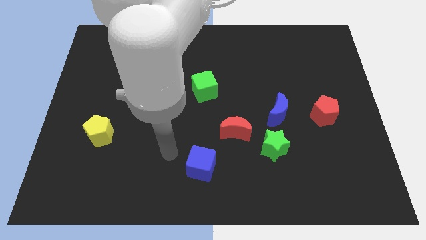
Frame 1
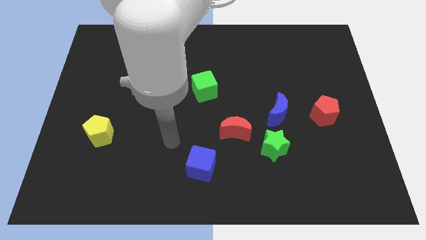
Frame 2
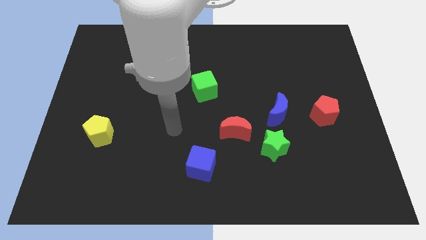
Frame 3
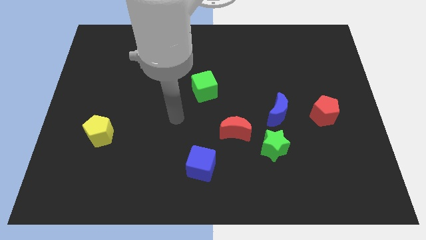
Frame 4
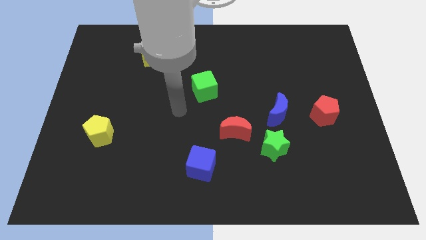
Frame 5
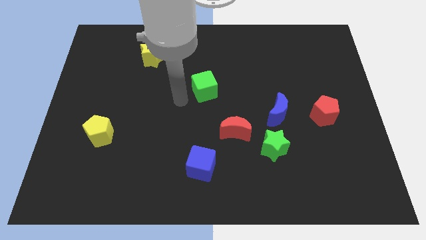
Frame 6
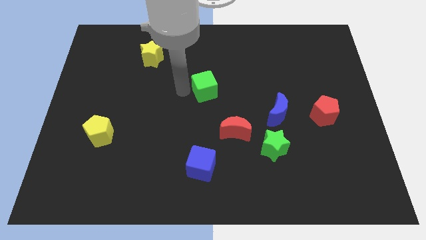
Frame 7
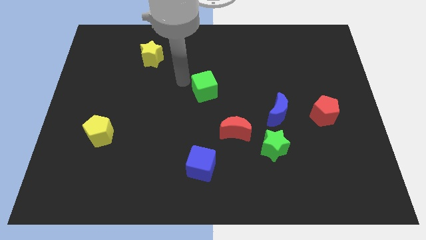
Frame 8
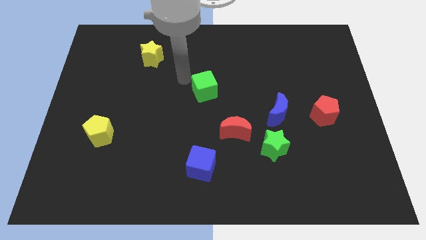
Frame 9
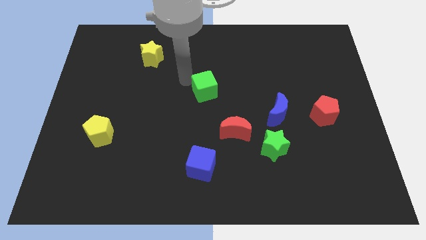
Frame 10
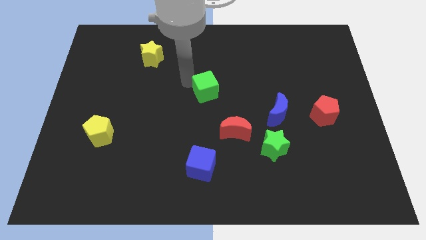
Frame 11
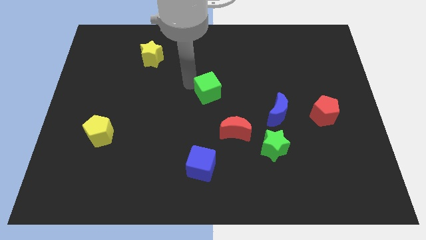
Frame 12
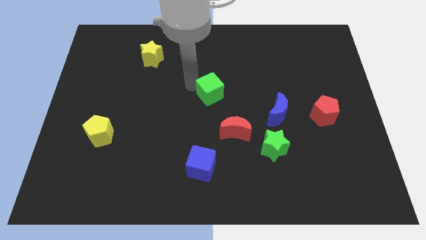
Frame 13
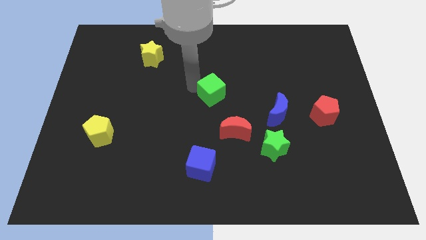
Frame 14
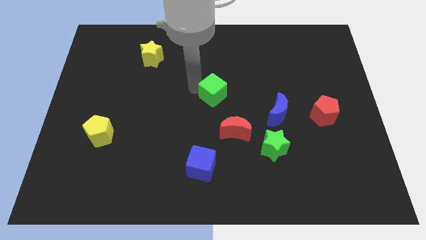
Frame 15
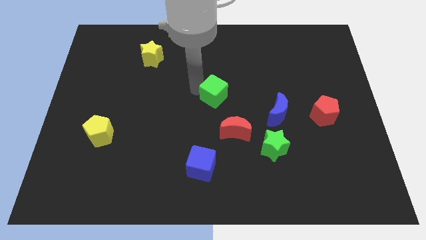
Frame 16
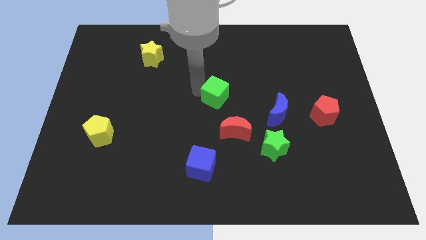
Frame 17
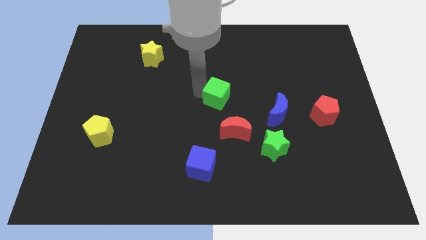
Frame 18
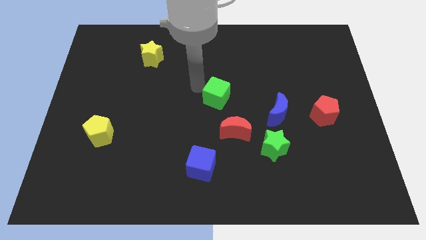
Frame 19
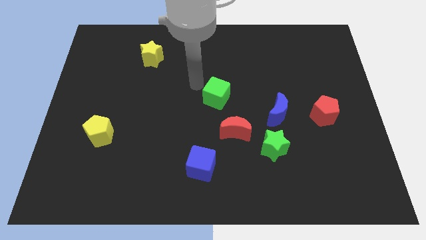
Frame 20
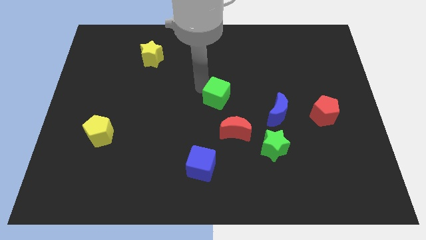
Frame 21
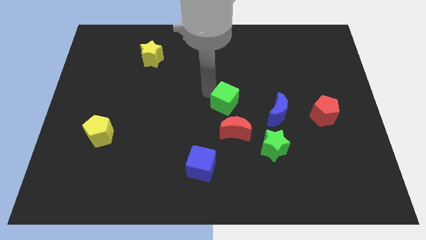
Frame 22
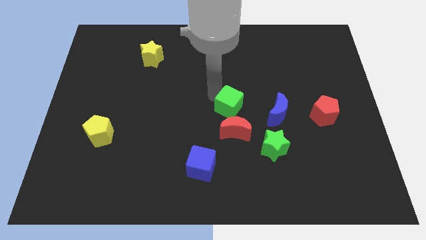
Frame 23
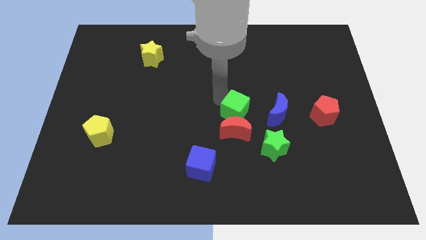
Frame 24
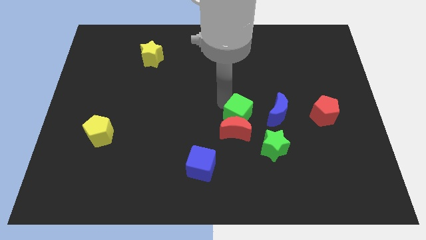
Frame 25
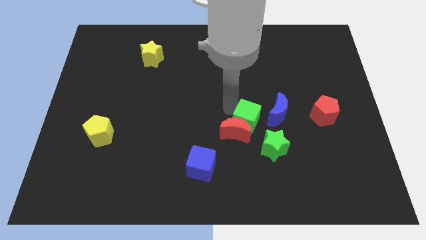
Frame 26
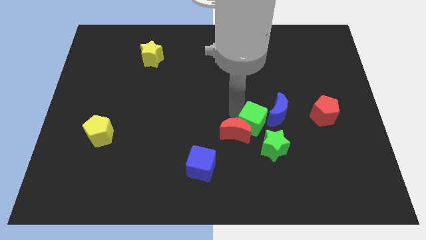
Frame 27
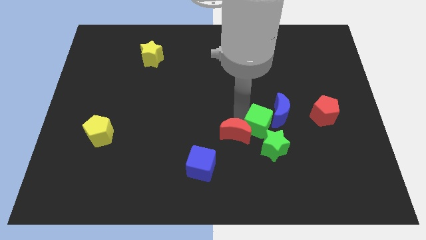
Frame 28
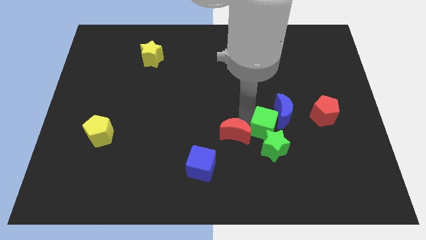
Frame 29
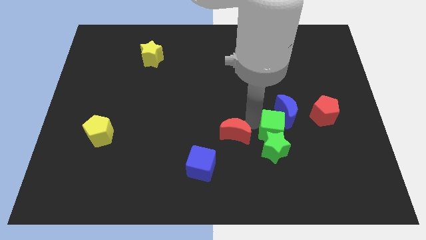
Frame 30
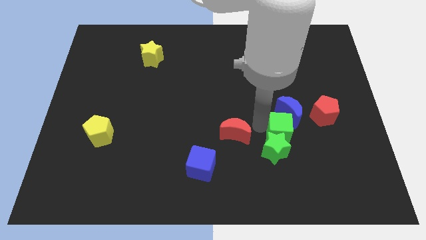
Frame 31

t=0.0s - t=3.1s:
push the green cube downwards and to the right diagonally

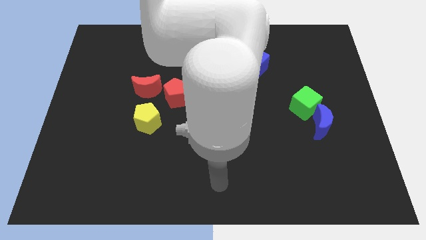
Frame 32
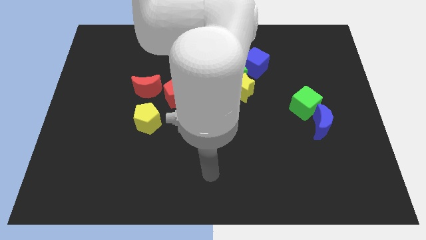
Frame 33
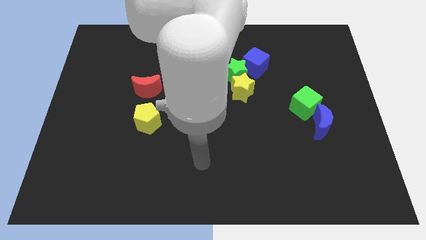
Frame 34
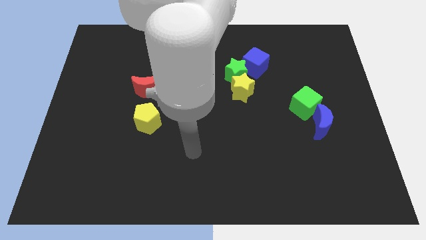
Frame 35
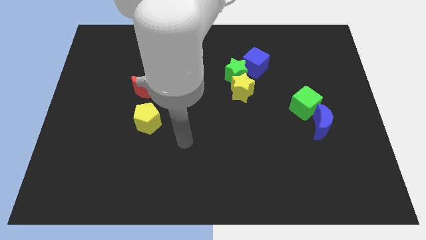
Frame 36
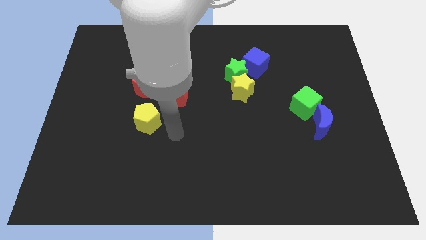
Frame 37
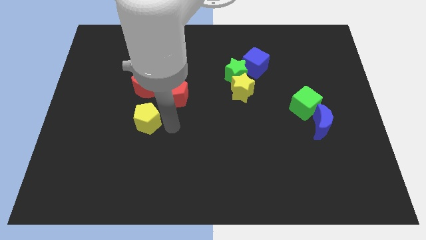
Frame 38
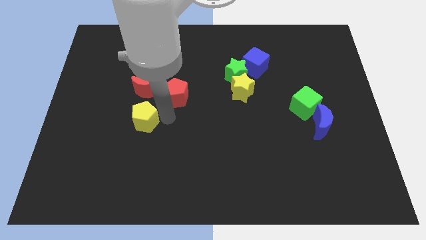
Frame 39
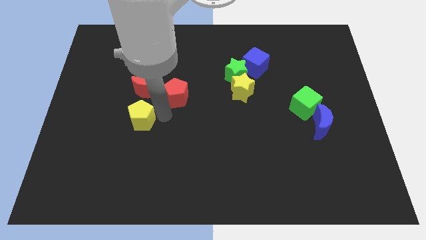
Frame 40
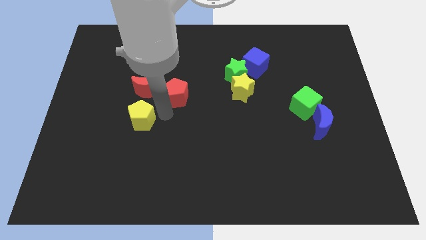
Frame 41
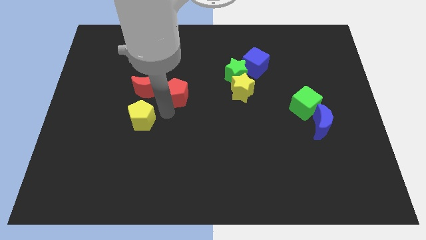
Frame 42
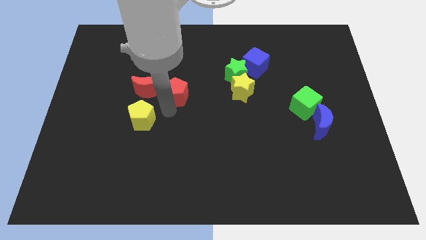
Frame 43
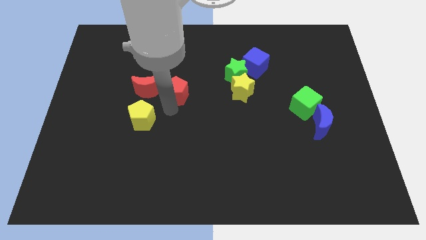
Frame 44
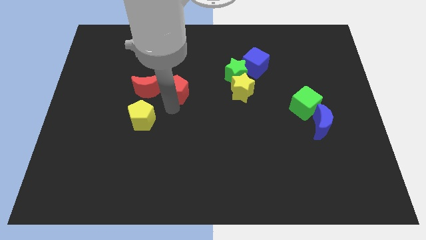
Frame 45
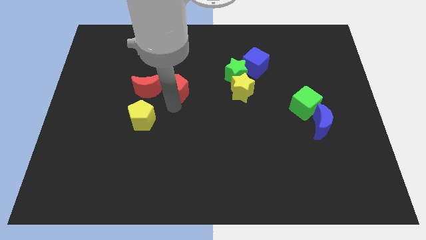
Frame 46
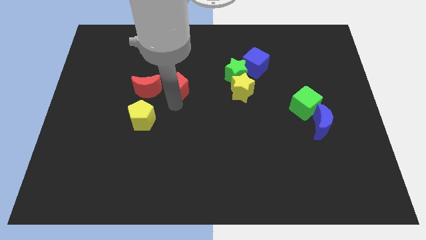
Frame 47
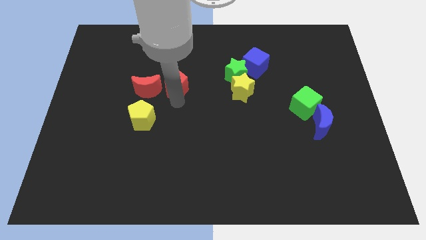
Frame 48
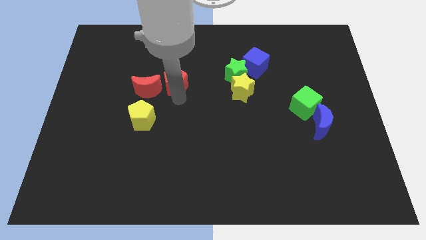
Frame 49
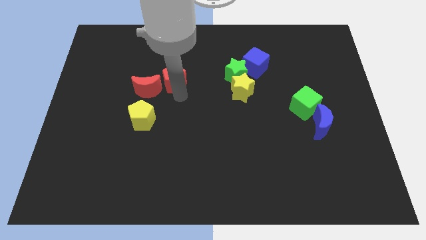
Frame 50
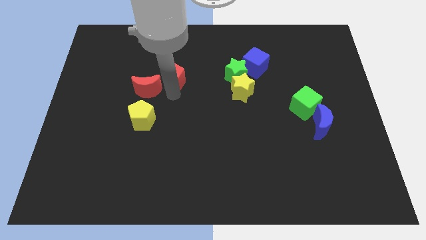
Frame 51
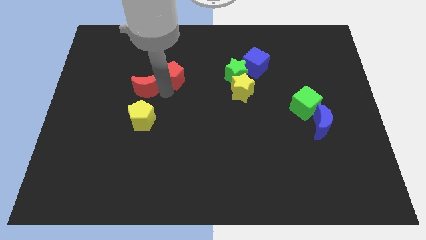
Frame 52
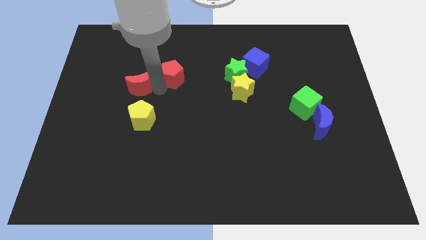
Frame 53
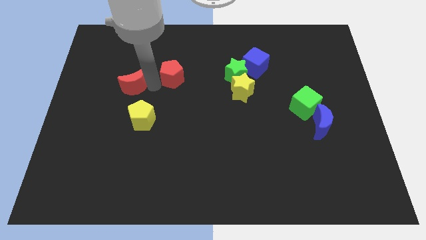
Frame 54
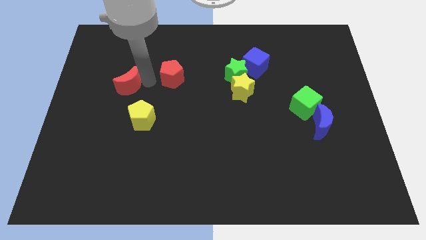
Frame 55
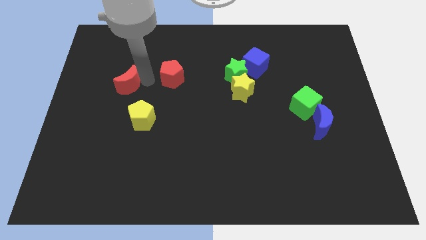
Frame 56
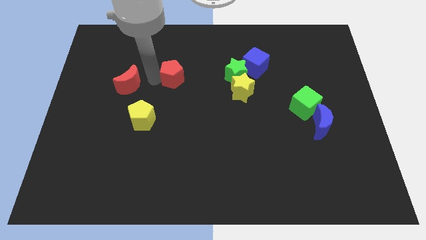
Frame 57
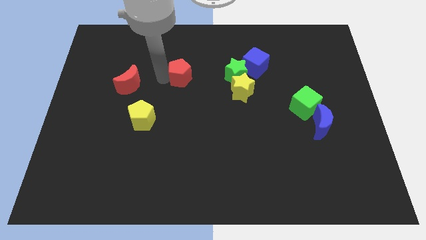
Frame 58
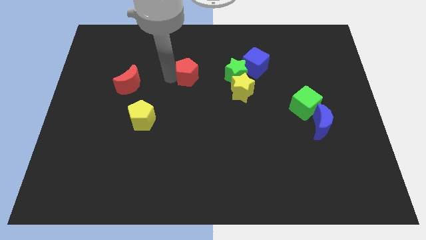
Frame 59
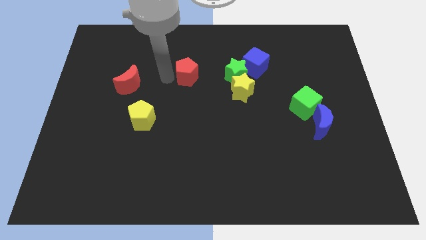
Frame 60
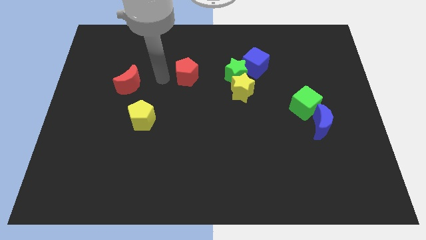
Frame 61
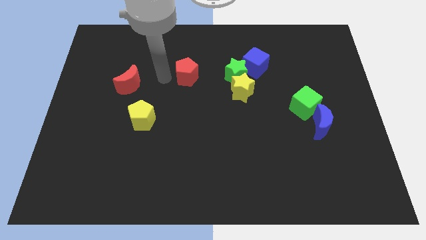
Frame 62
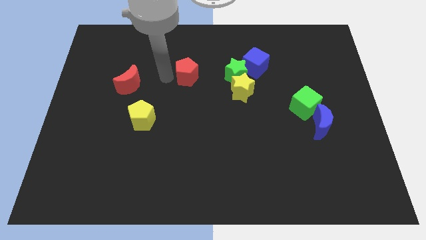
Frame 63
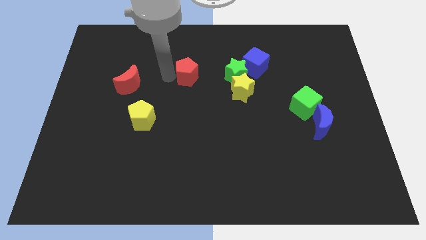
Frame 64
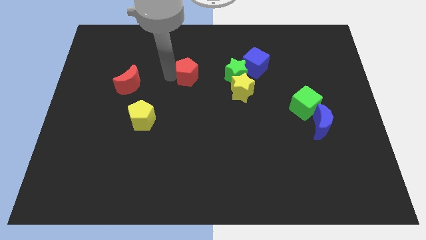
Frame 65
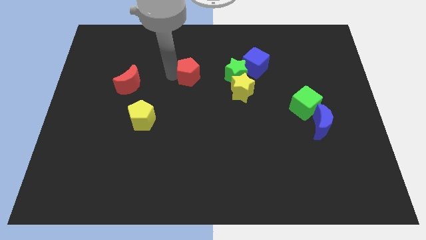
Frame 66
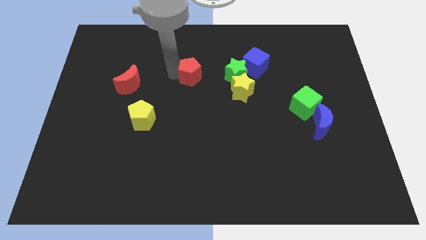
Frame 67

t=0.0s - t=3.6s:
move the red pentagon up and then right somewhat

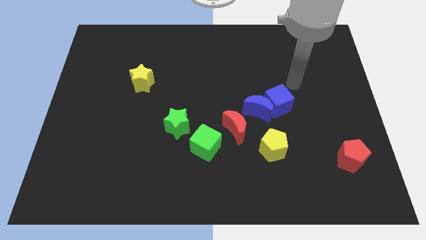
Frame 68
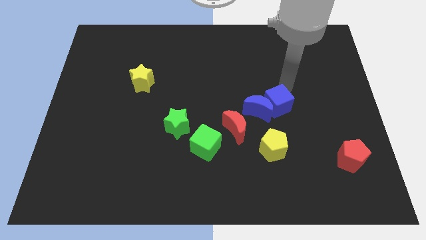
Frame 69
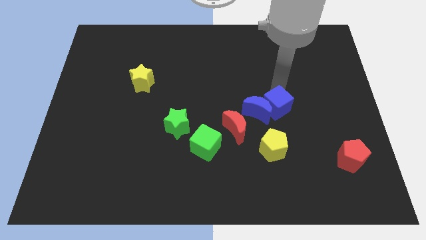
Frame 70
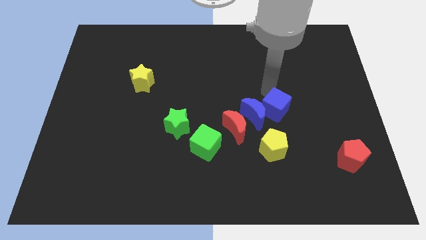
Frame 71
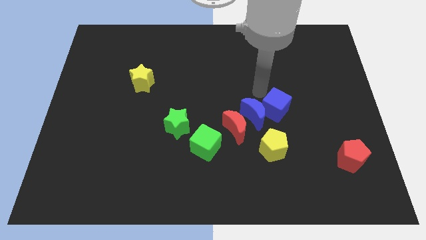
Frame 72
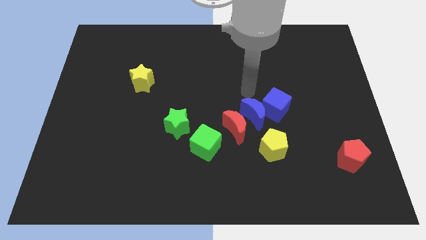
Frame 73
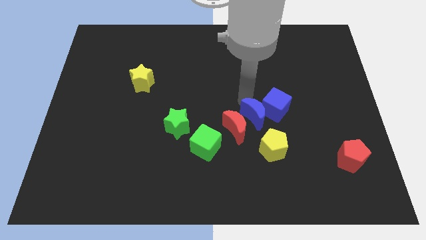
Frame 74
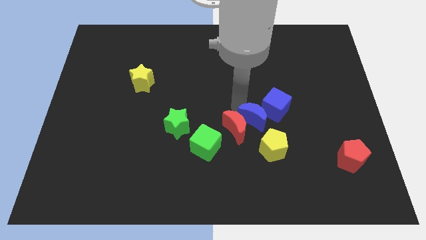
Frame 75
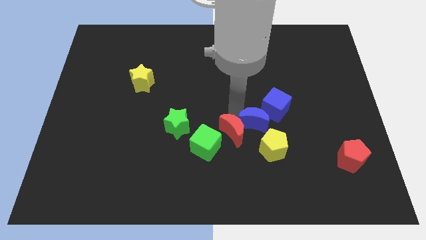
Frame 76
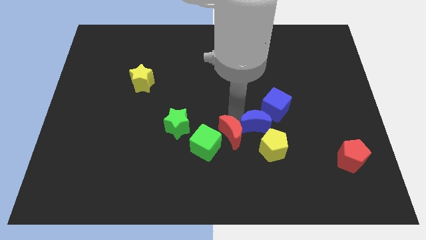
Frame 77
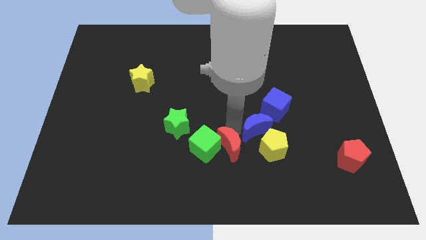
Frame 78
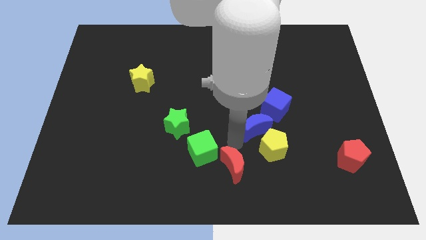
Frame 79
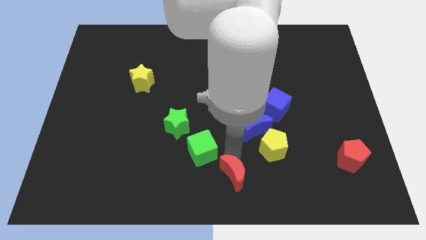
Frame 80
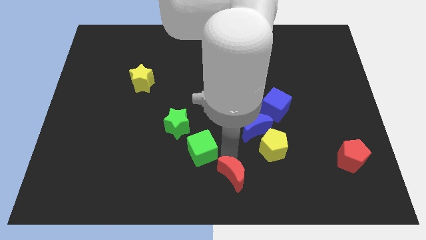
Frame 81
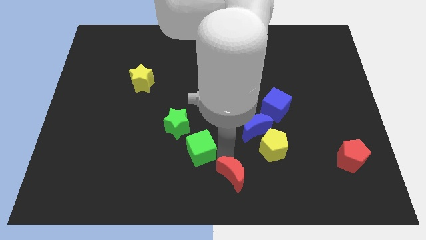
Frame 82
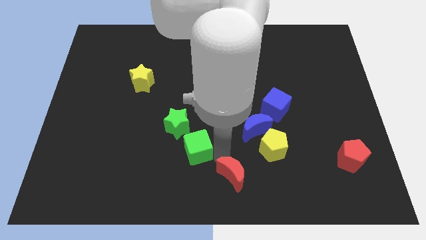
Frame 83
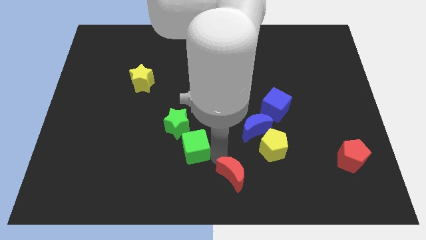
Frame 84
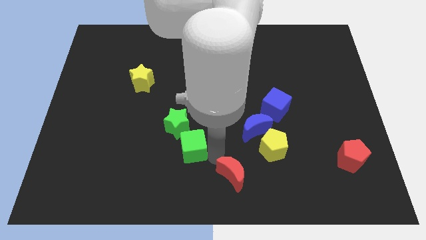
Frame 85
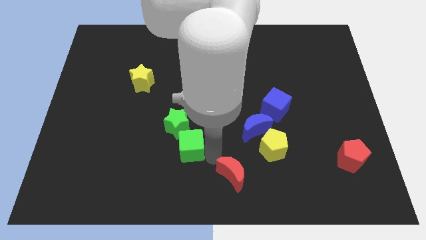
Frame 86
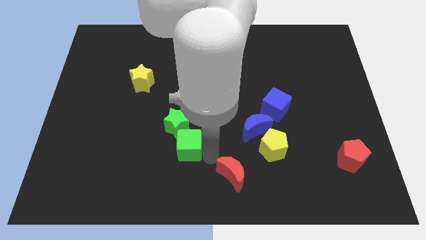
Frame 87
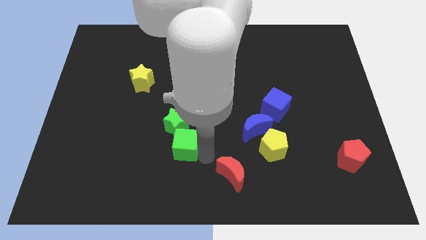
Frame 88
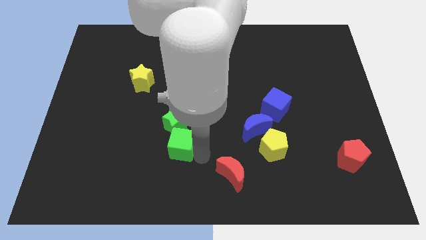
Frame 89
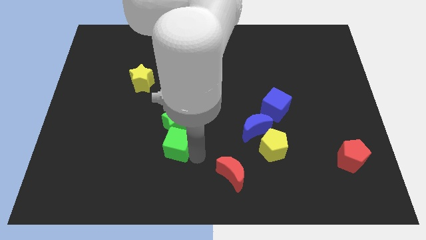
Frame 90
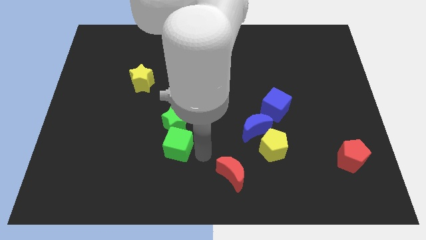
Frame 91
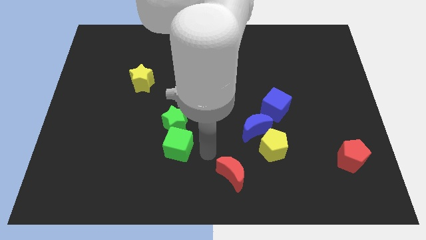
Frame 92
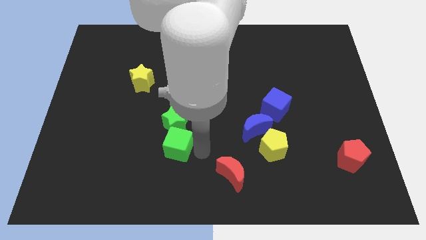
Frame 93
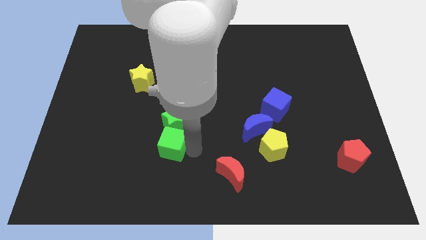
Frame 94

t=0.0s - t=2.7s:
slide the green cube somewhat left
